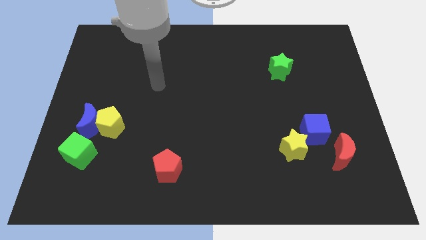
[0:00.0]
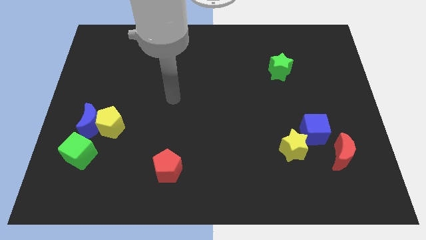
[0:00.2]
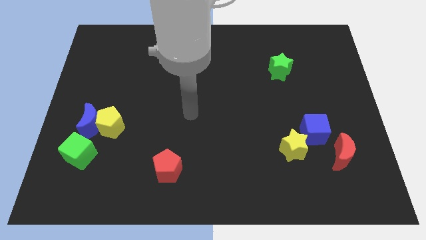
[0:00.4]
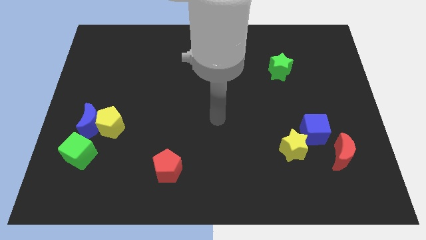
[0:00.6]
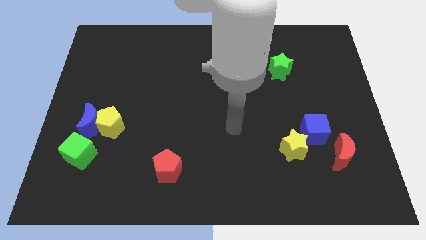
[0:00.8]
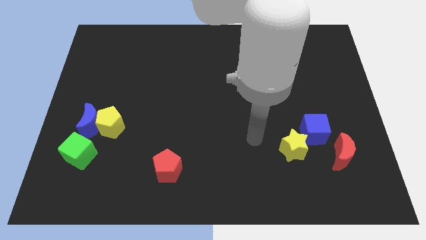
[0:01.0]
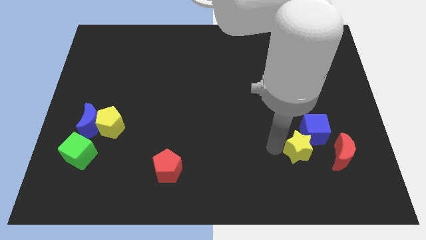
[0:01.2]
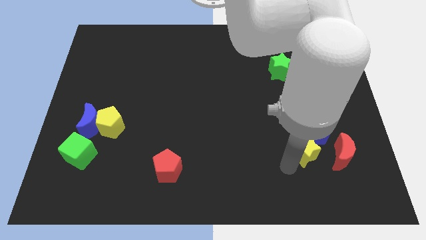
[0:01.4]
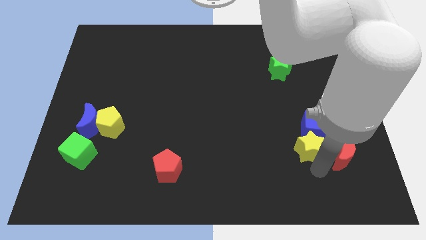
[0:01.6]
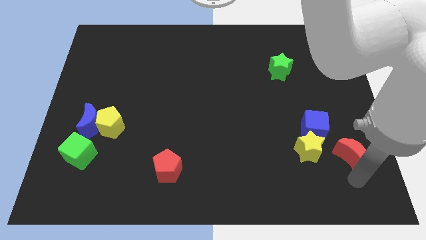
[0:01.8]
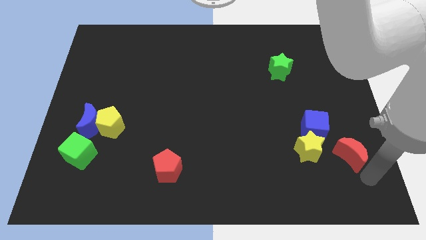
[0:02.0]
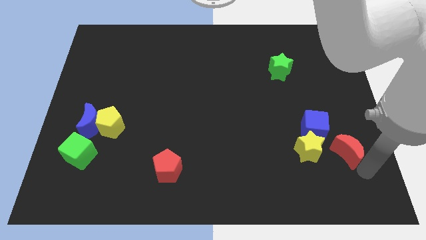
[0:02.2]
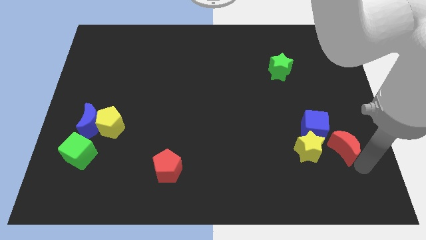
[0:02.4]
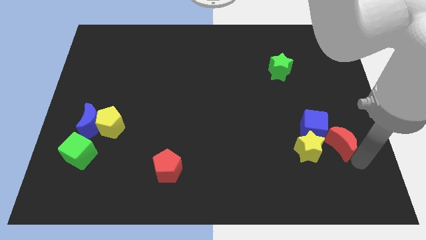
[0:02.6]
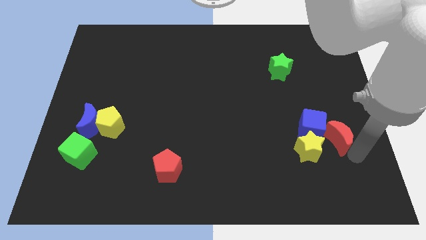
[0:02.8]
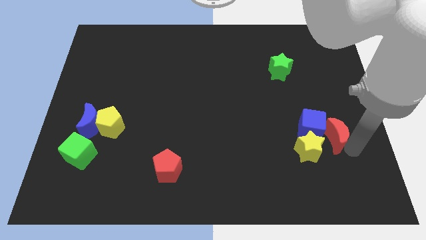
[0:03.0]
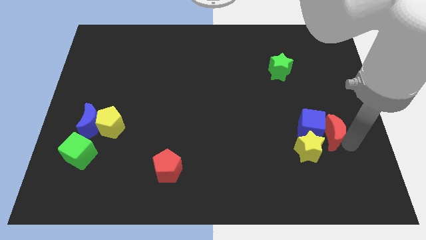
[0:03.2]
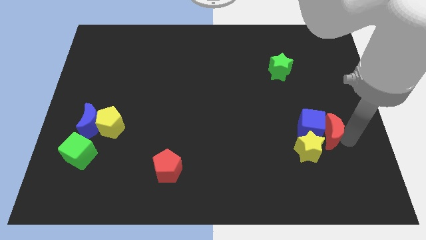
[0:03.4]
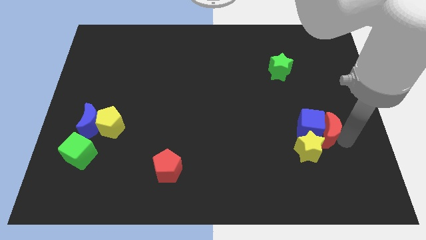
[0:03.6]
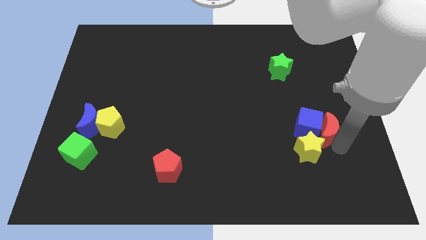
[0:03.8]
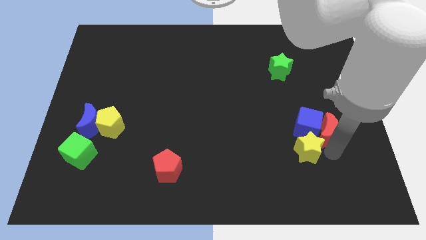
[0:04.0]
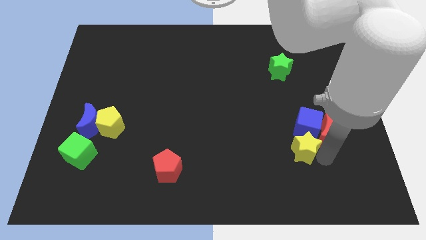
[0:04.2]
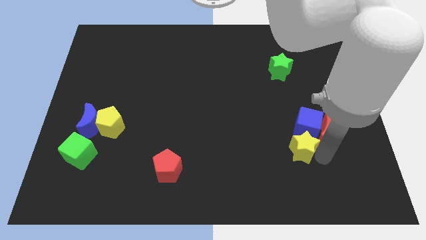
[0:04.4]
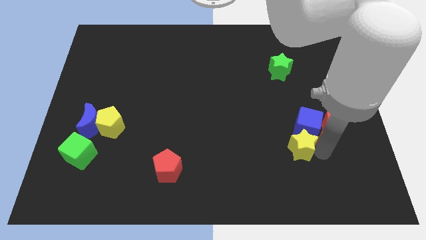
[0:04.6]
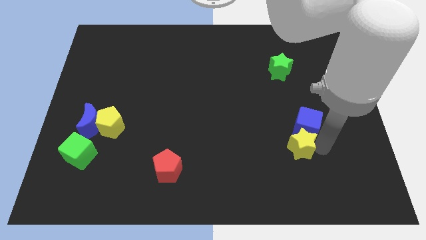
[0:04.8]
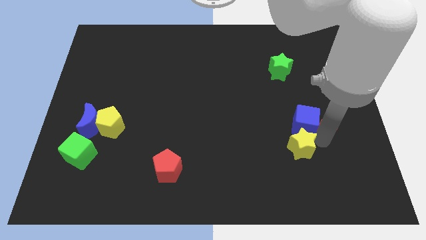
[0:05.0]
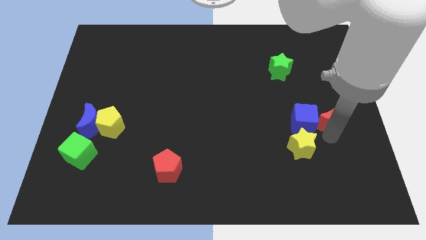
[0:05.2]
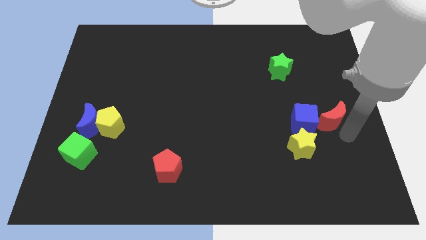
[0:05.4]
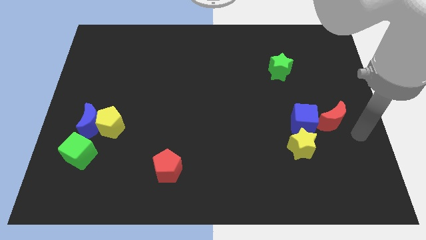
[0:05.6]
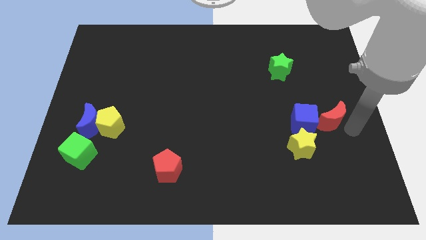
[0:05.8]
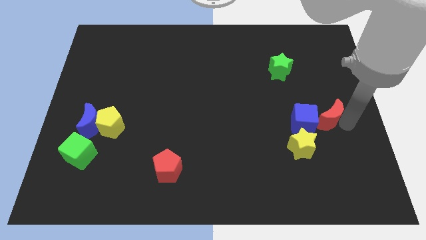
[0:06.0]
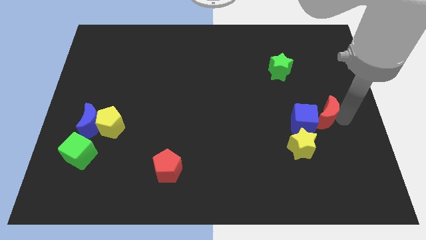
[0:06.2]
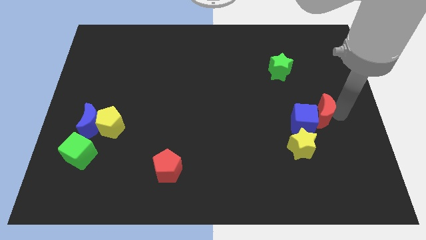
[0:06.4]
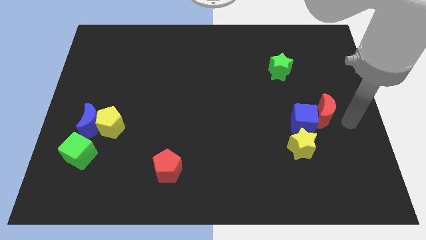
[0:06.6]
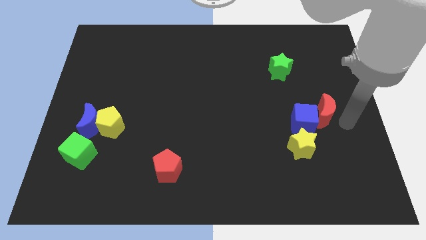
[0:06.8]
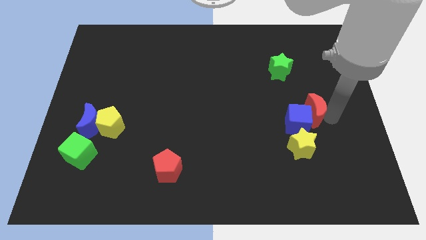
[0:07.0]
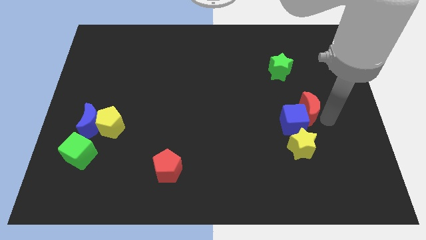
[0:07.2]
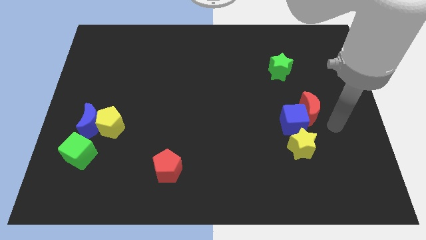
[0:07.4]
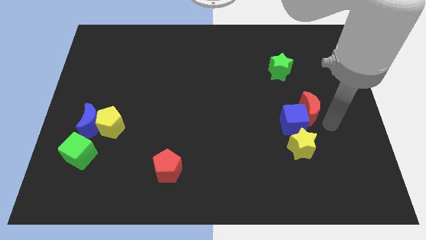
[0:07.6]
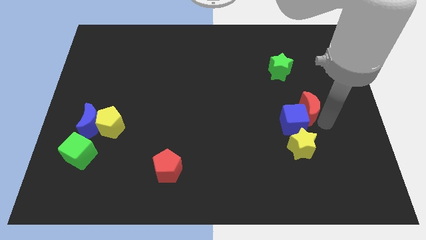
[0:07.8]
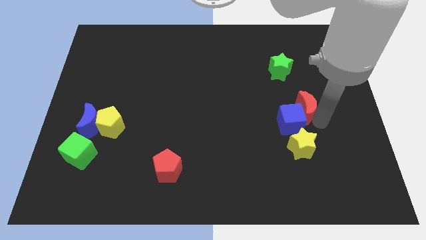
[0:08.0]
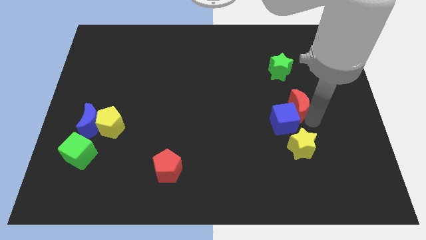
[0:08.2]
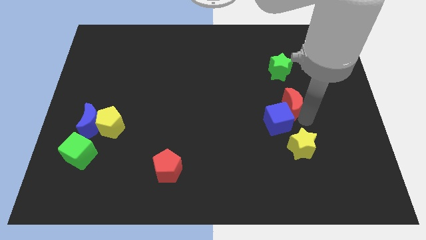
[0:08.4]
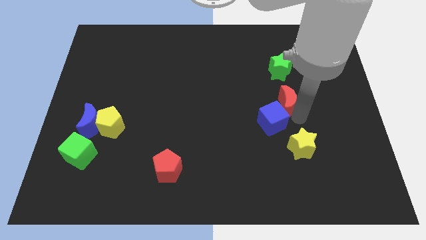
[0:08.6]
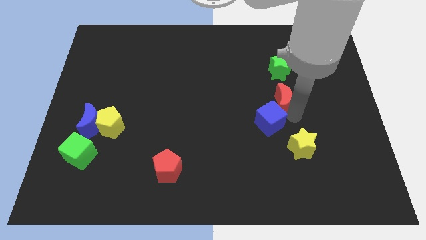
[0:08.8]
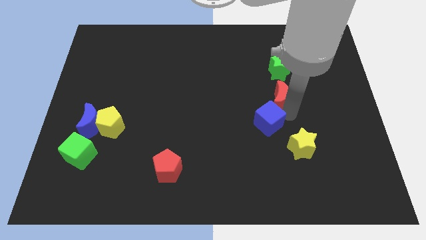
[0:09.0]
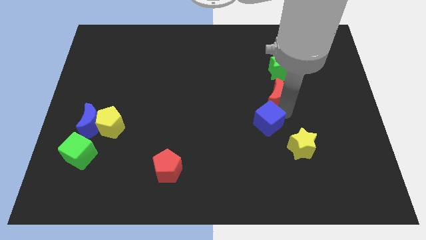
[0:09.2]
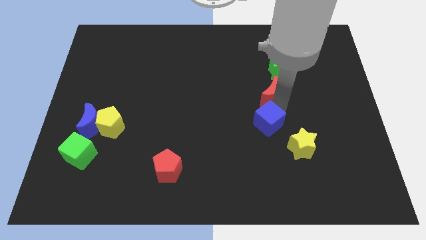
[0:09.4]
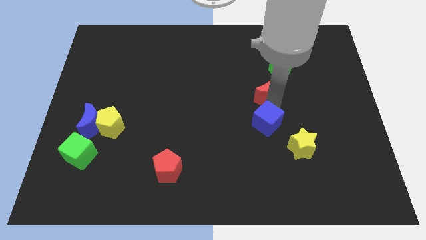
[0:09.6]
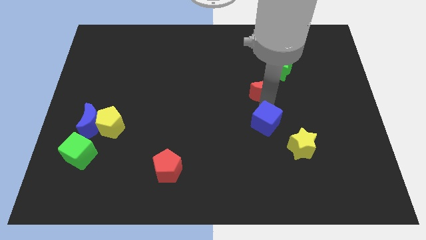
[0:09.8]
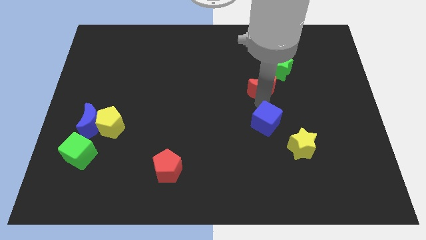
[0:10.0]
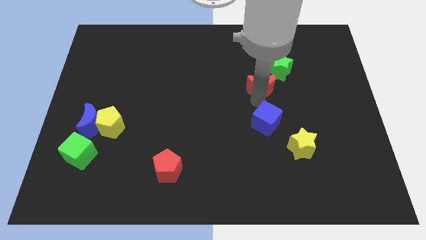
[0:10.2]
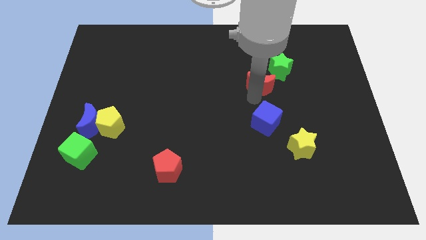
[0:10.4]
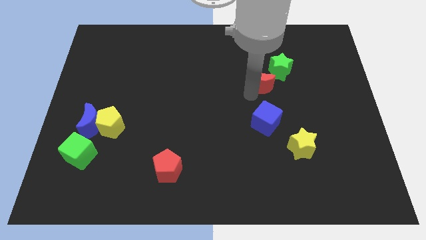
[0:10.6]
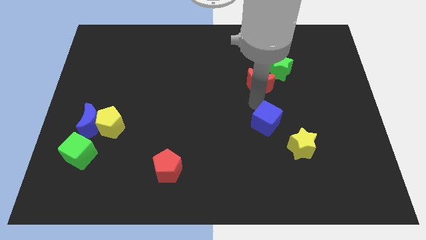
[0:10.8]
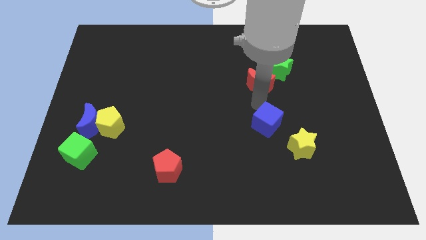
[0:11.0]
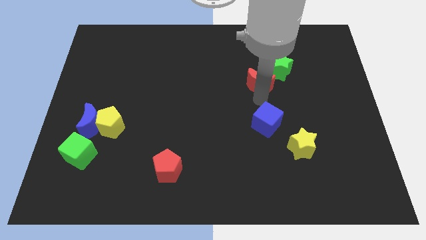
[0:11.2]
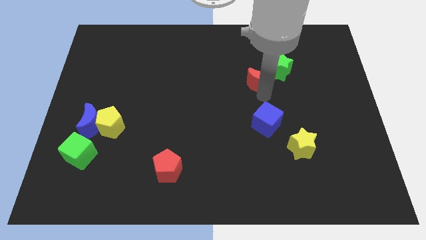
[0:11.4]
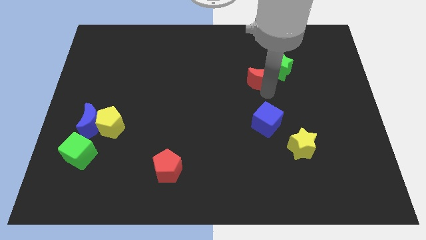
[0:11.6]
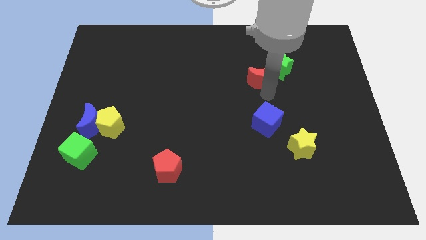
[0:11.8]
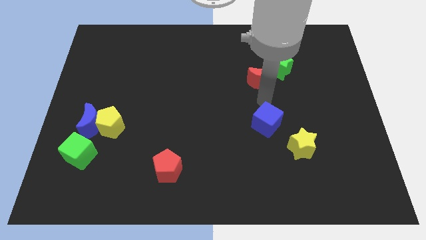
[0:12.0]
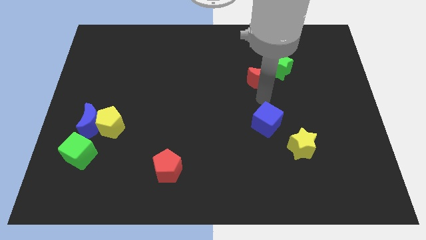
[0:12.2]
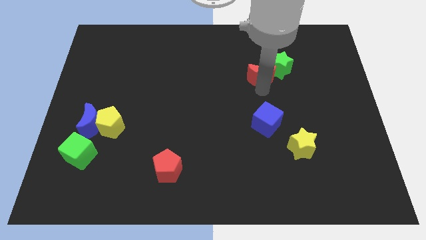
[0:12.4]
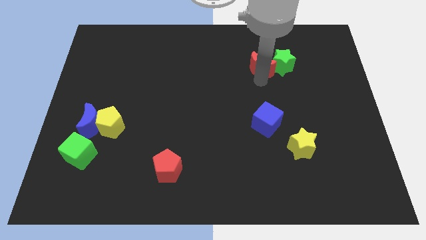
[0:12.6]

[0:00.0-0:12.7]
push the red moon diagonally up and to the left of the green star

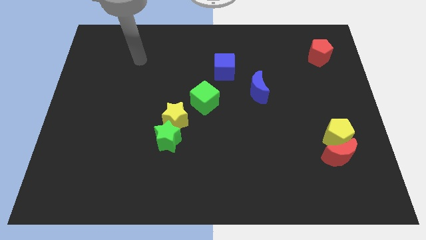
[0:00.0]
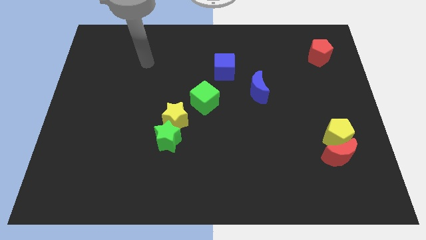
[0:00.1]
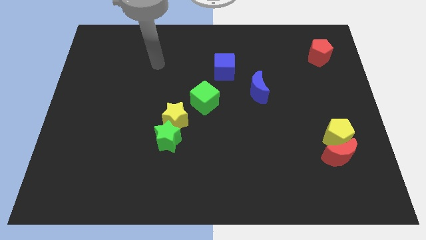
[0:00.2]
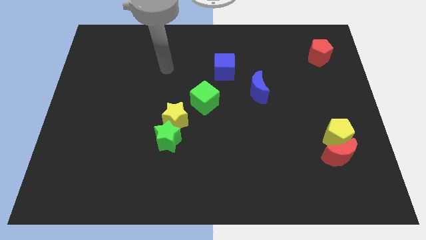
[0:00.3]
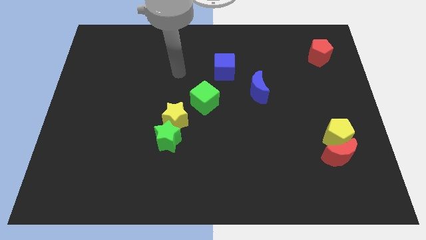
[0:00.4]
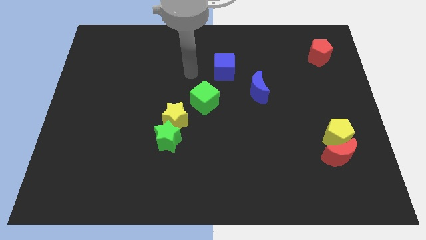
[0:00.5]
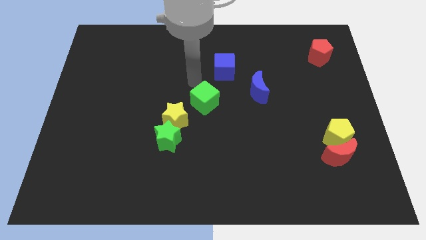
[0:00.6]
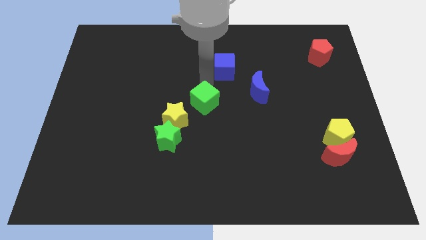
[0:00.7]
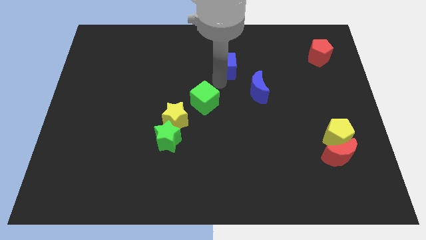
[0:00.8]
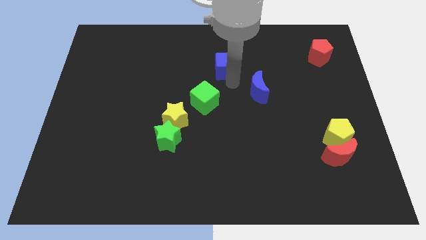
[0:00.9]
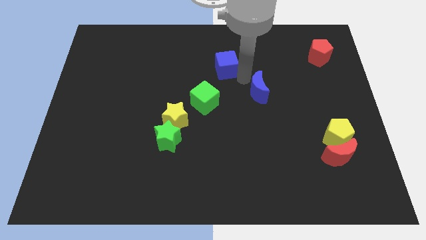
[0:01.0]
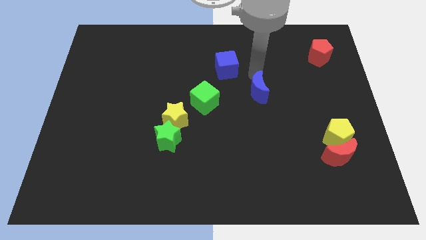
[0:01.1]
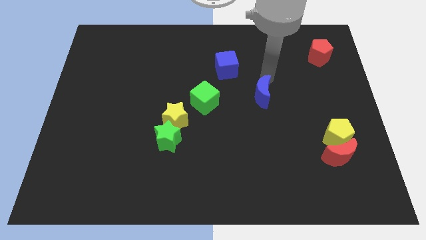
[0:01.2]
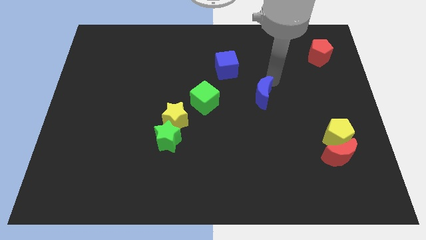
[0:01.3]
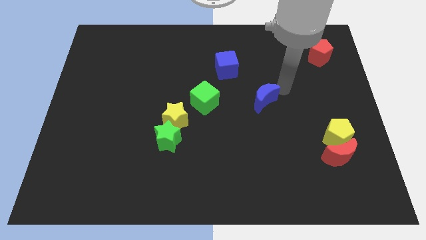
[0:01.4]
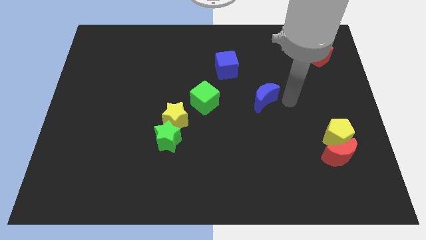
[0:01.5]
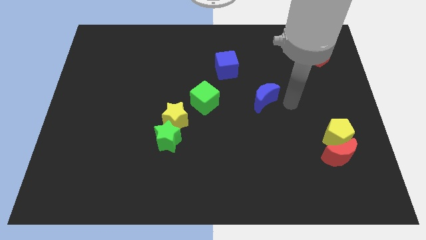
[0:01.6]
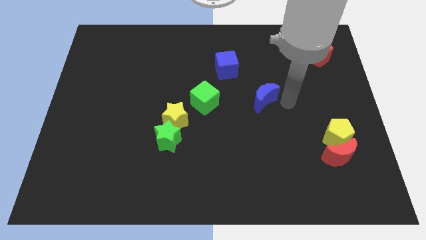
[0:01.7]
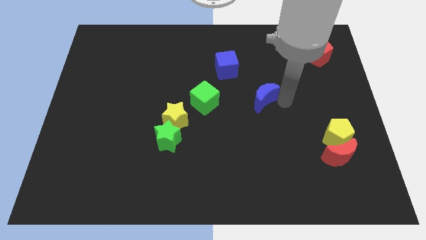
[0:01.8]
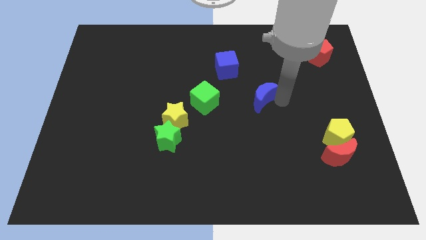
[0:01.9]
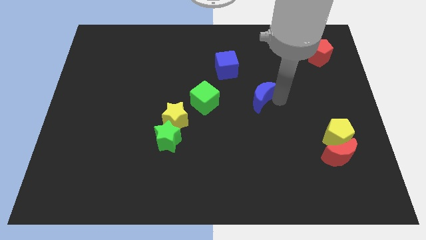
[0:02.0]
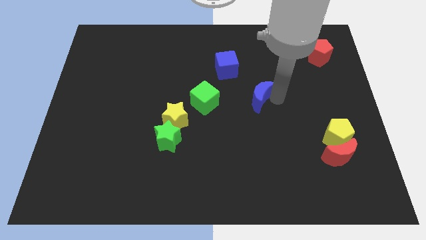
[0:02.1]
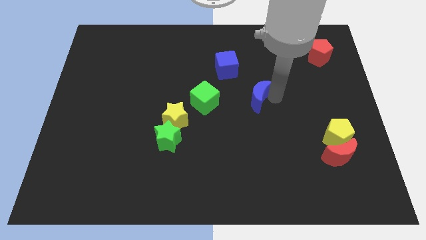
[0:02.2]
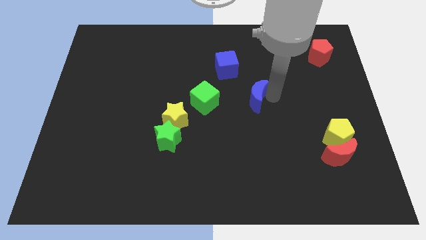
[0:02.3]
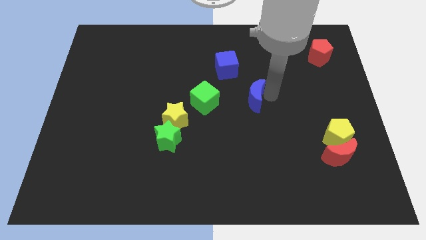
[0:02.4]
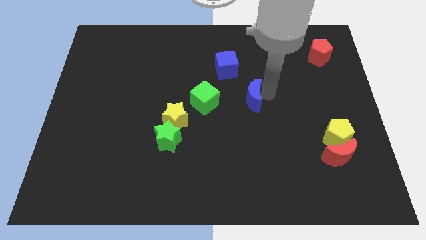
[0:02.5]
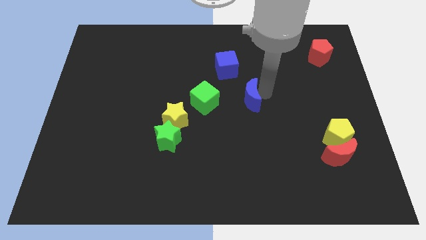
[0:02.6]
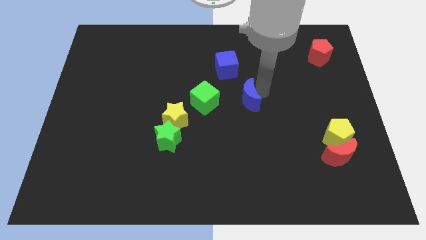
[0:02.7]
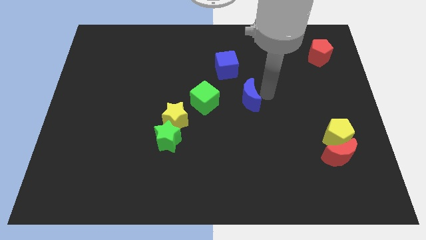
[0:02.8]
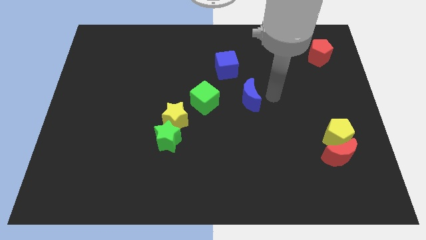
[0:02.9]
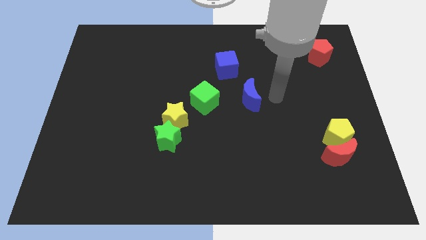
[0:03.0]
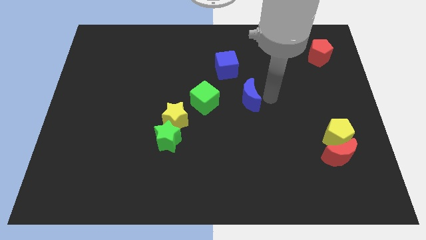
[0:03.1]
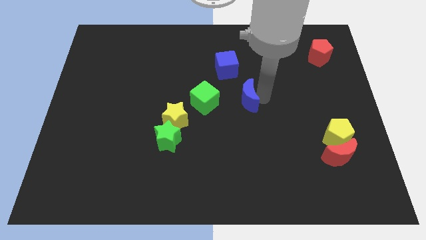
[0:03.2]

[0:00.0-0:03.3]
slide the blue moon to the bottom side of the blue cube
